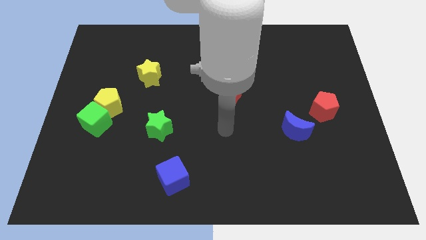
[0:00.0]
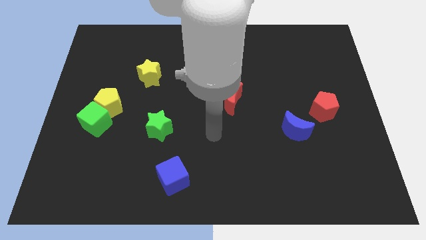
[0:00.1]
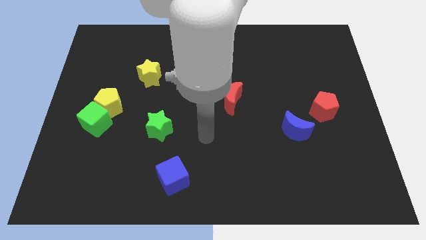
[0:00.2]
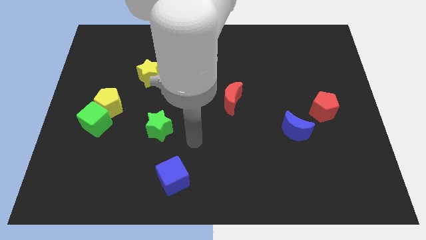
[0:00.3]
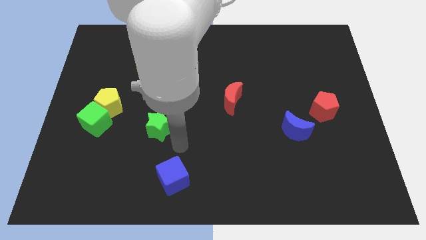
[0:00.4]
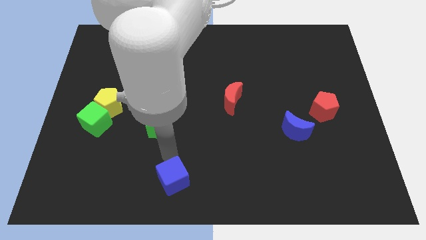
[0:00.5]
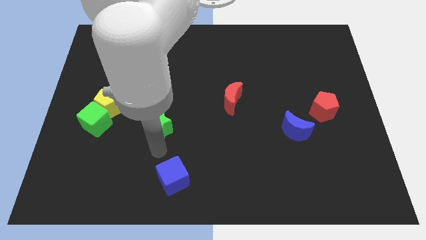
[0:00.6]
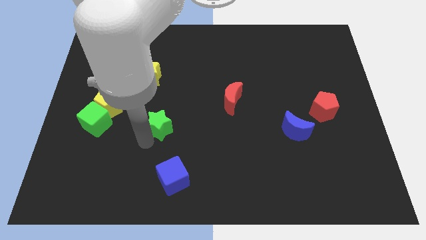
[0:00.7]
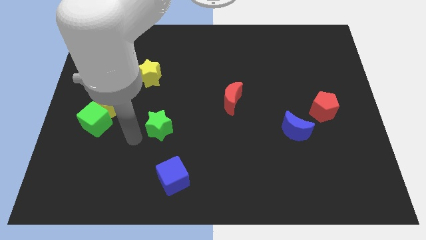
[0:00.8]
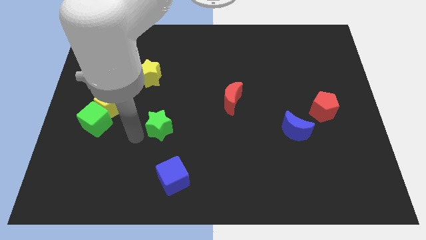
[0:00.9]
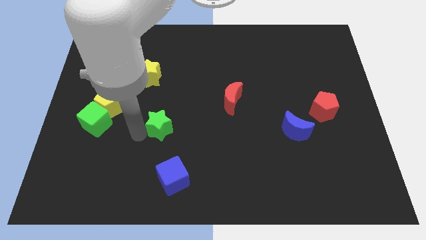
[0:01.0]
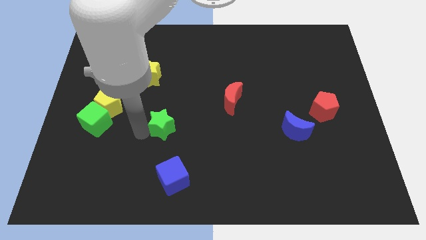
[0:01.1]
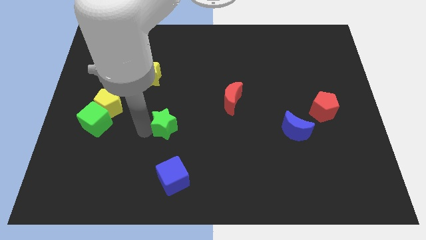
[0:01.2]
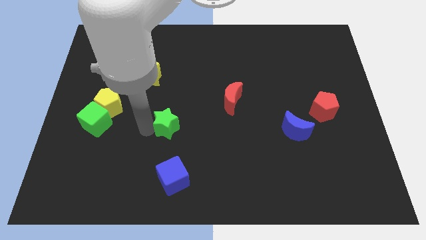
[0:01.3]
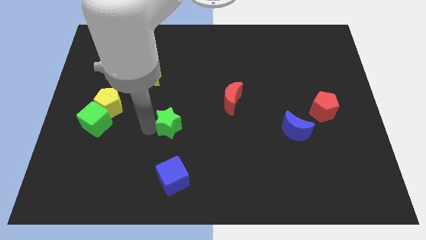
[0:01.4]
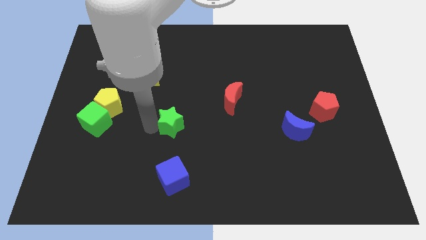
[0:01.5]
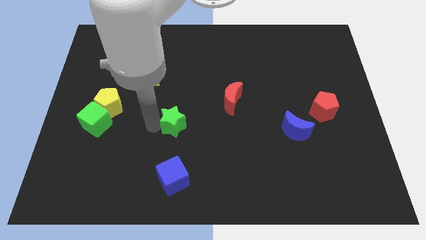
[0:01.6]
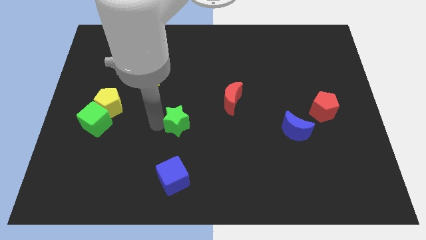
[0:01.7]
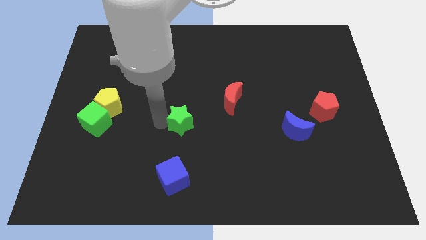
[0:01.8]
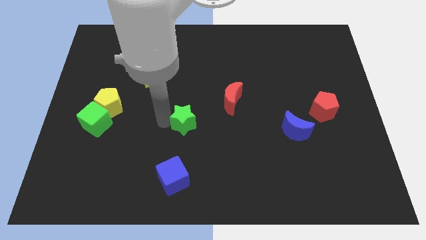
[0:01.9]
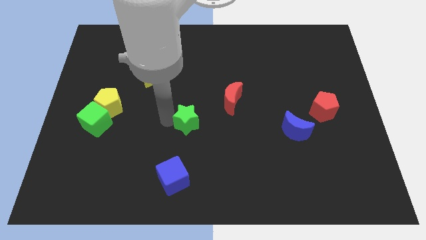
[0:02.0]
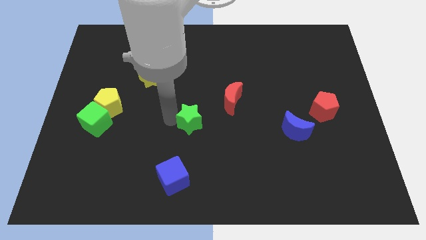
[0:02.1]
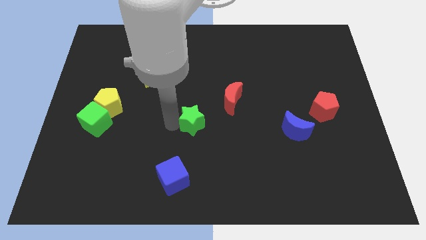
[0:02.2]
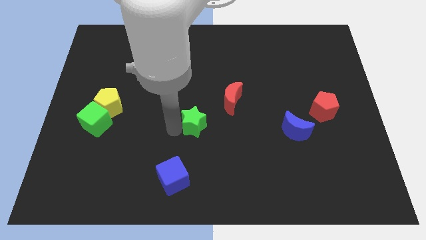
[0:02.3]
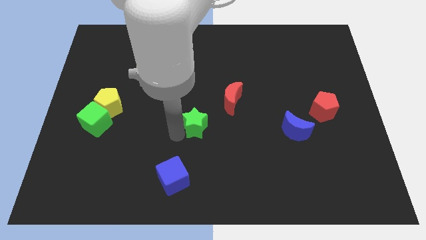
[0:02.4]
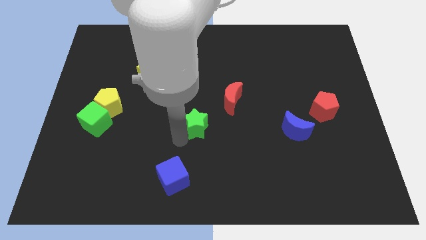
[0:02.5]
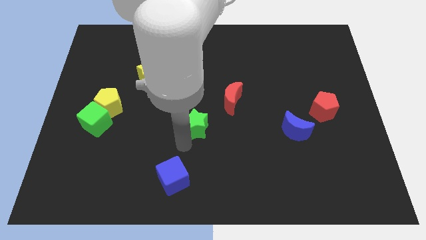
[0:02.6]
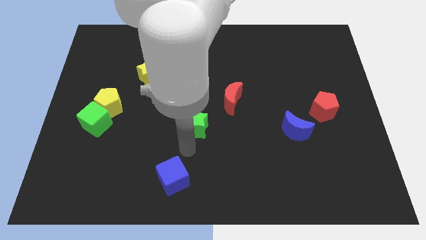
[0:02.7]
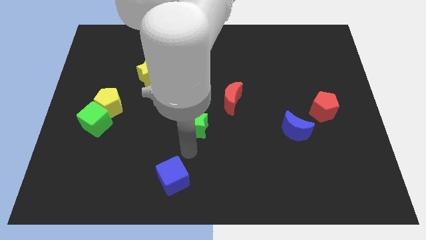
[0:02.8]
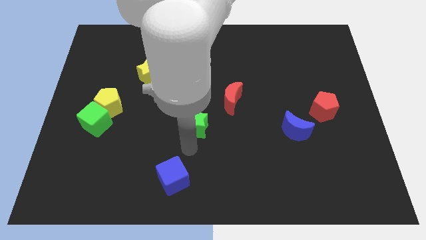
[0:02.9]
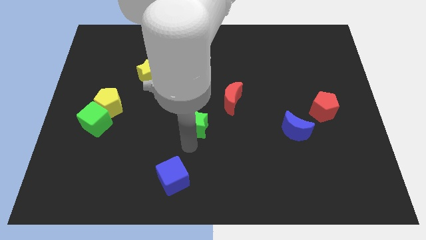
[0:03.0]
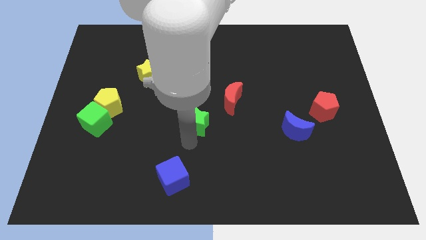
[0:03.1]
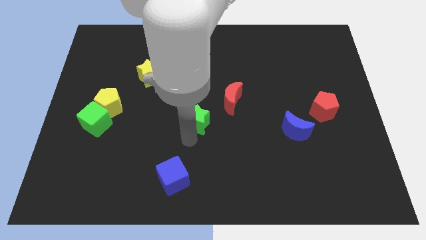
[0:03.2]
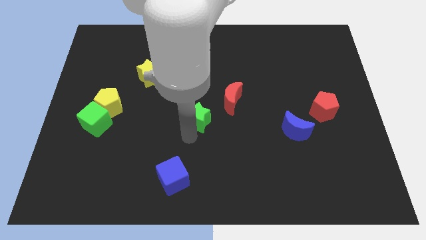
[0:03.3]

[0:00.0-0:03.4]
slide the green star diagonally up and to the right somewhat

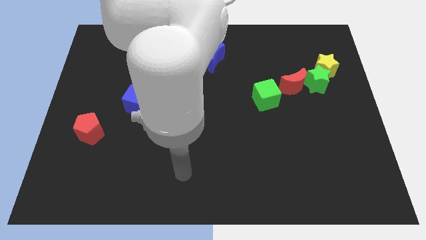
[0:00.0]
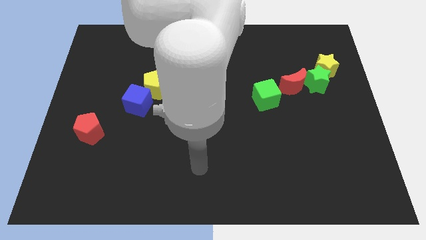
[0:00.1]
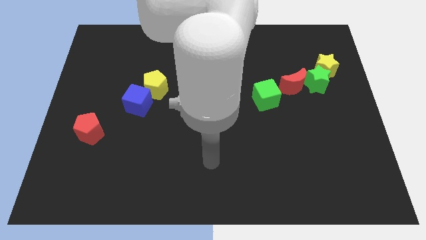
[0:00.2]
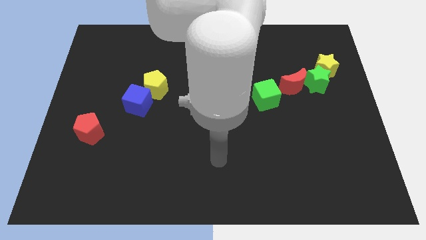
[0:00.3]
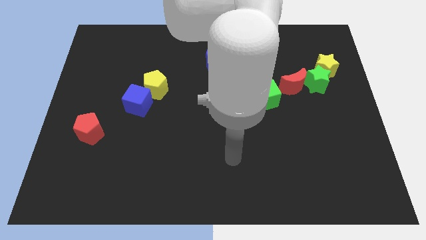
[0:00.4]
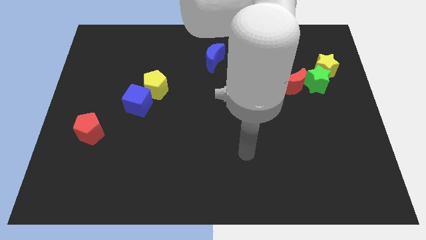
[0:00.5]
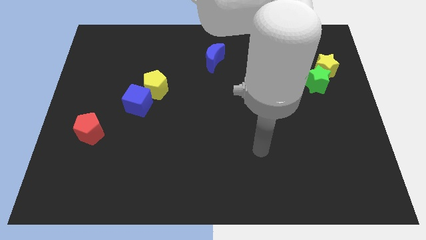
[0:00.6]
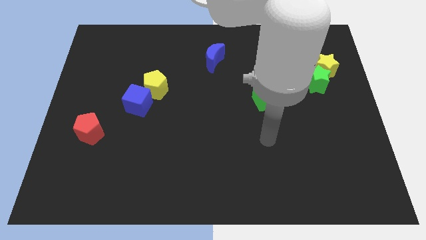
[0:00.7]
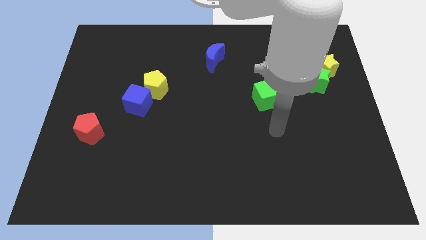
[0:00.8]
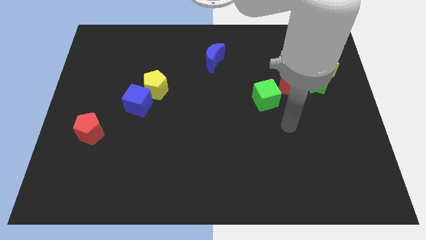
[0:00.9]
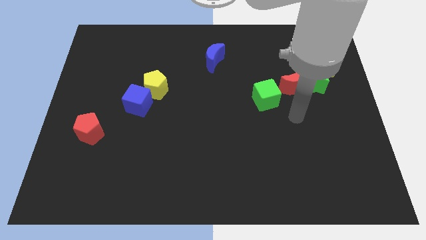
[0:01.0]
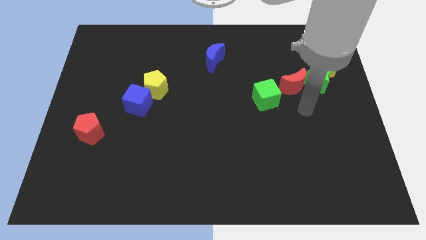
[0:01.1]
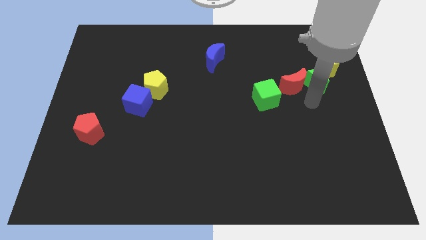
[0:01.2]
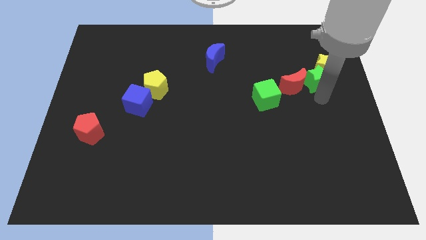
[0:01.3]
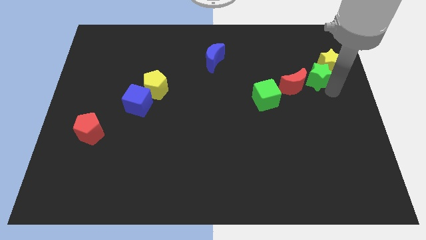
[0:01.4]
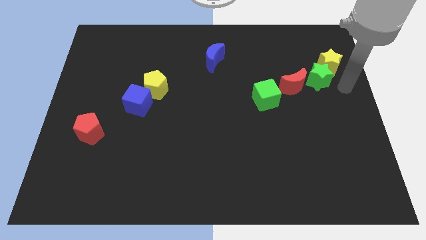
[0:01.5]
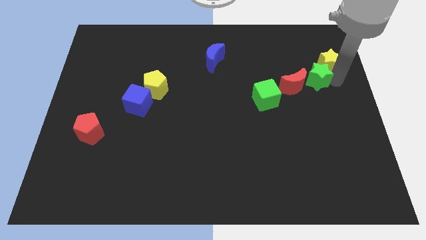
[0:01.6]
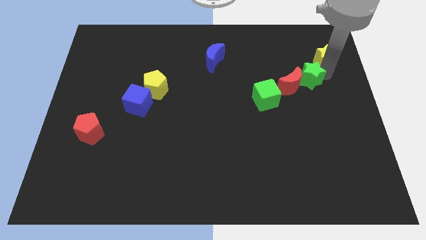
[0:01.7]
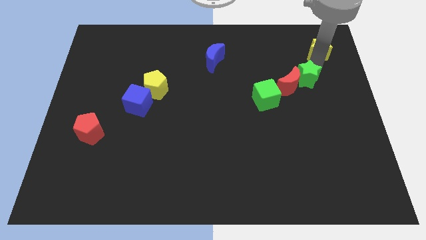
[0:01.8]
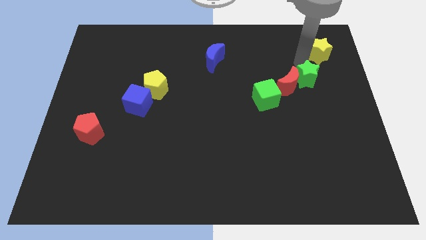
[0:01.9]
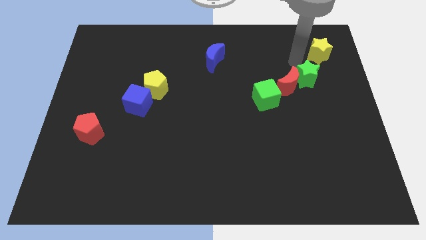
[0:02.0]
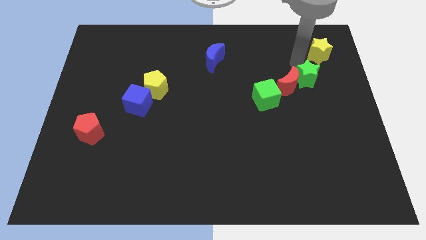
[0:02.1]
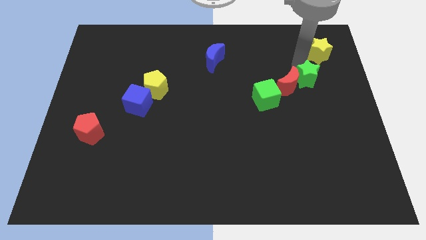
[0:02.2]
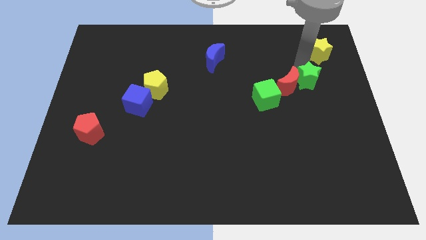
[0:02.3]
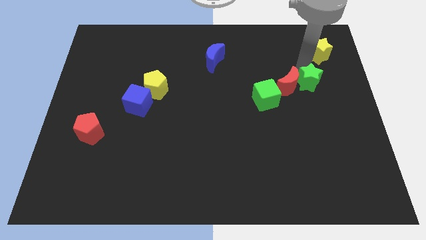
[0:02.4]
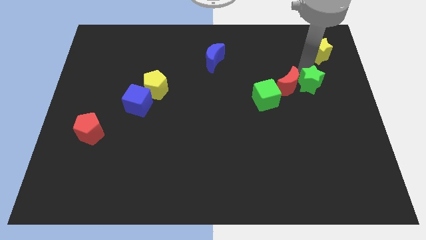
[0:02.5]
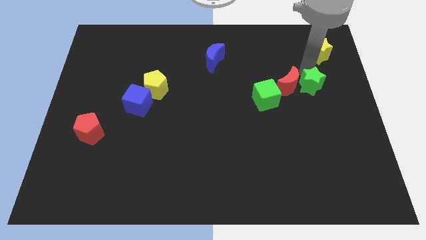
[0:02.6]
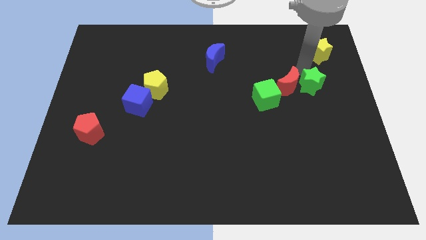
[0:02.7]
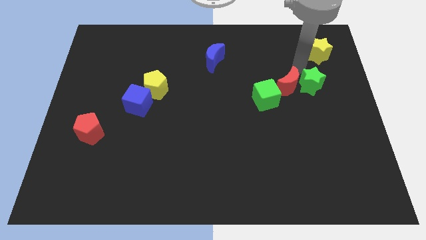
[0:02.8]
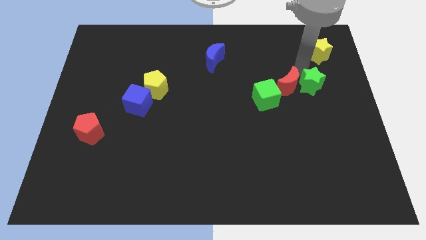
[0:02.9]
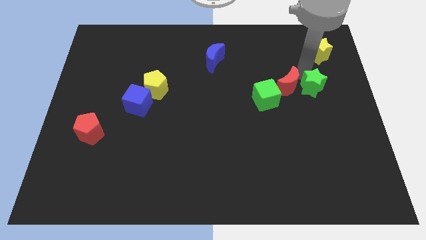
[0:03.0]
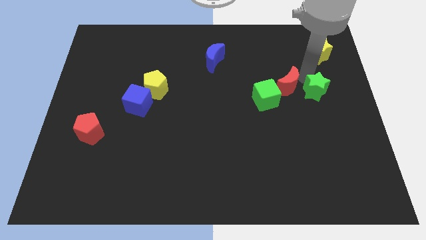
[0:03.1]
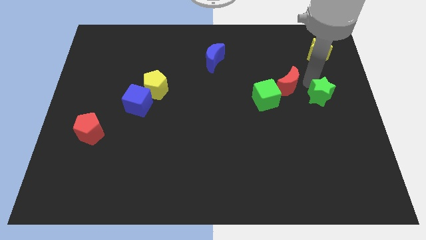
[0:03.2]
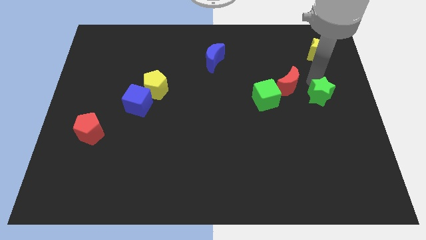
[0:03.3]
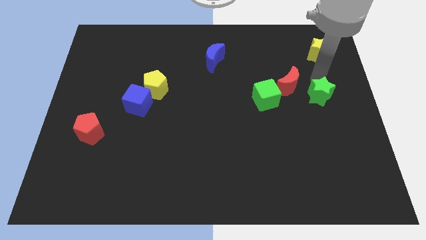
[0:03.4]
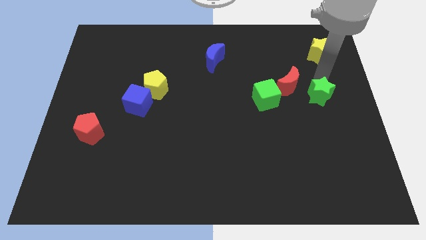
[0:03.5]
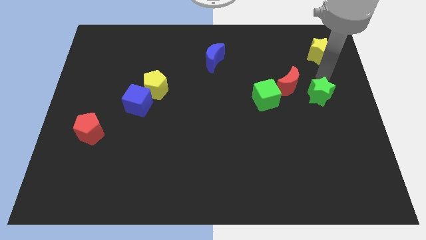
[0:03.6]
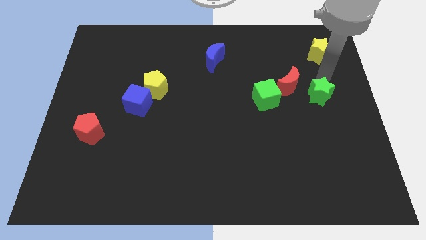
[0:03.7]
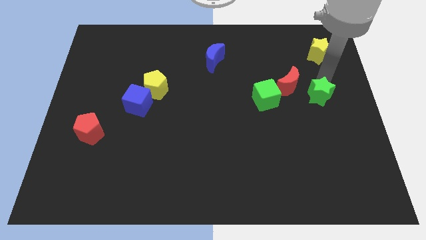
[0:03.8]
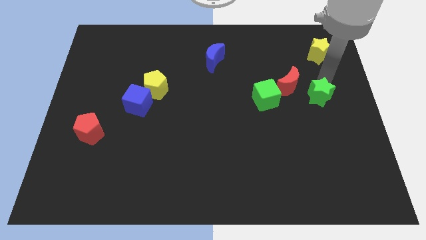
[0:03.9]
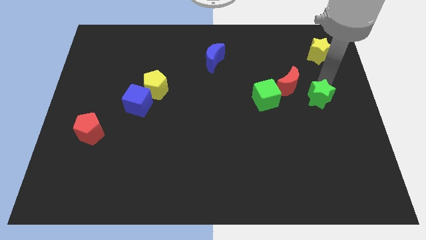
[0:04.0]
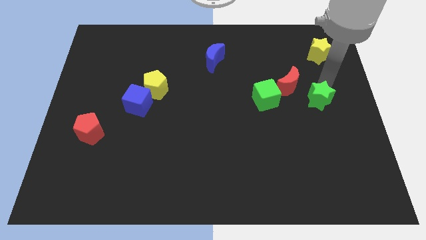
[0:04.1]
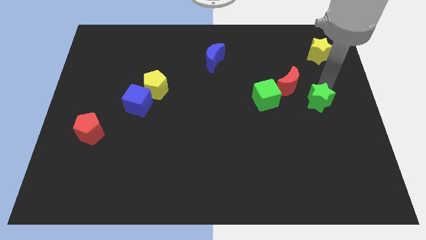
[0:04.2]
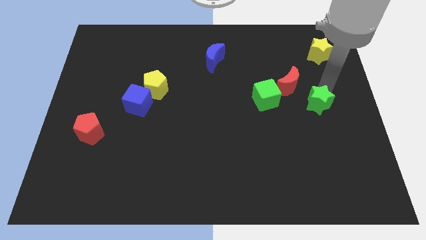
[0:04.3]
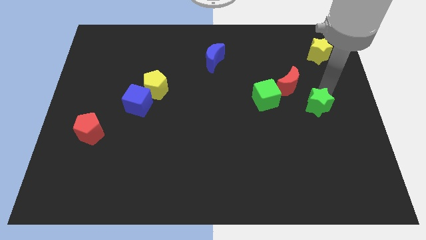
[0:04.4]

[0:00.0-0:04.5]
move the green star slightly down

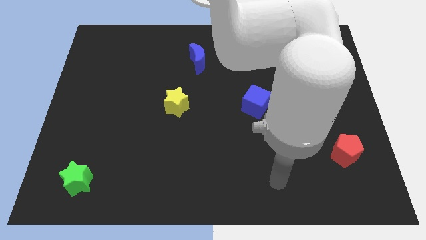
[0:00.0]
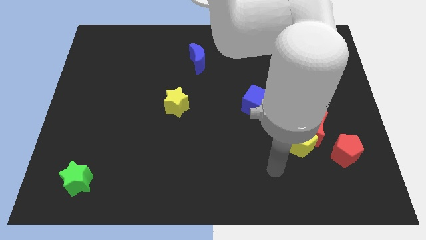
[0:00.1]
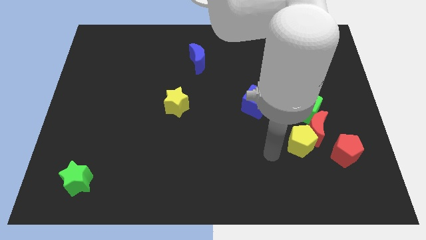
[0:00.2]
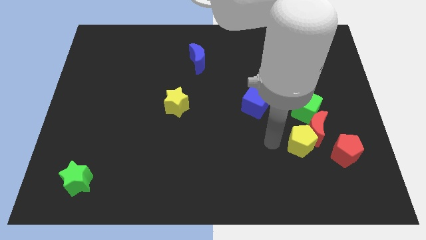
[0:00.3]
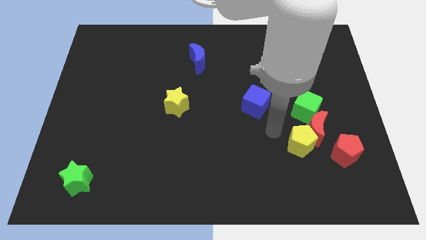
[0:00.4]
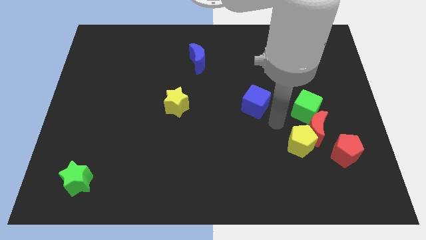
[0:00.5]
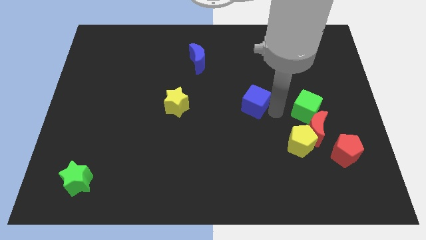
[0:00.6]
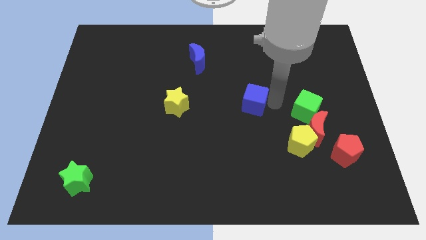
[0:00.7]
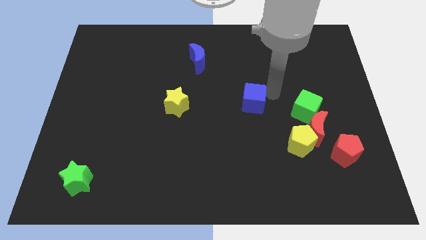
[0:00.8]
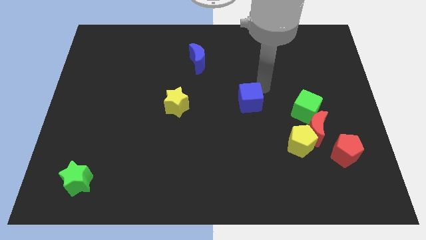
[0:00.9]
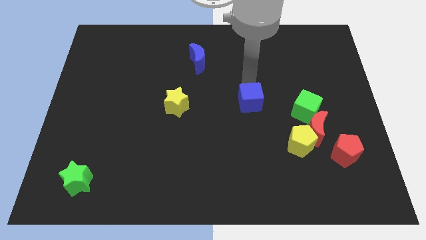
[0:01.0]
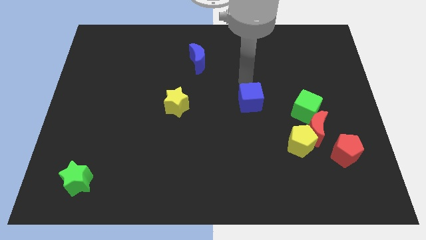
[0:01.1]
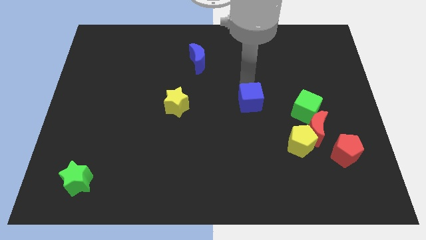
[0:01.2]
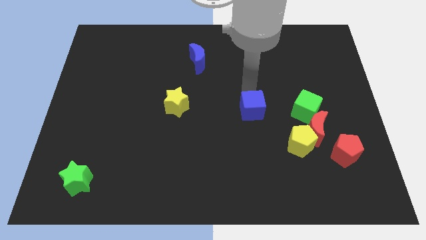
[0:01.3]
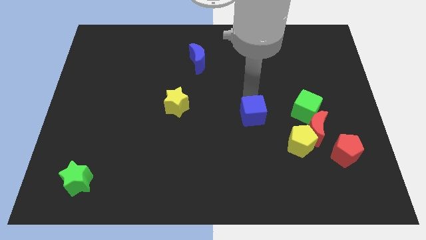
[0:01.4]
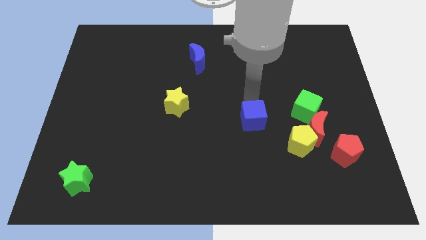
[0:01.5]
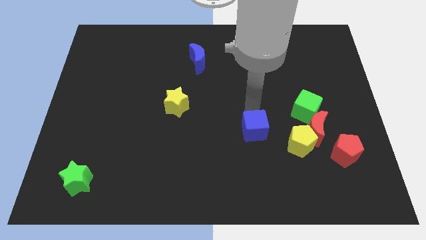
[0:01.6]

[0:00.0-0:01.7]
move the blue cube downwards a bit
